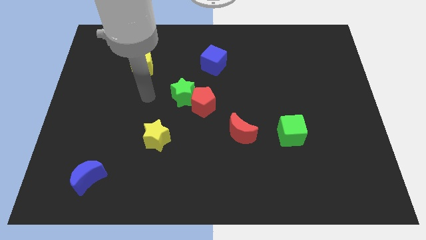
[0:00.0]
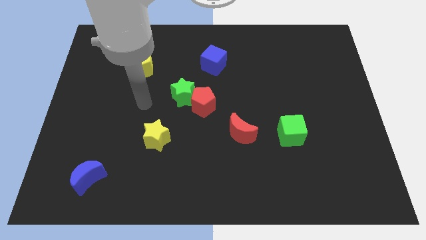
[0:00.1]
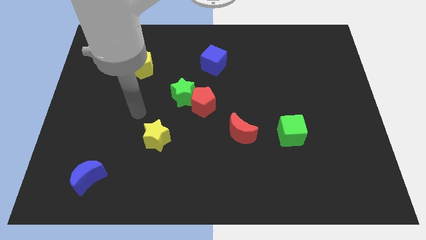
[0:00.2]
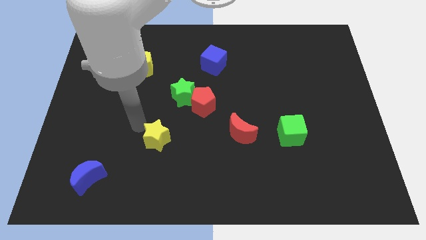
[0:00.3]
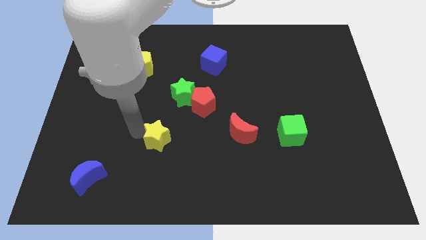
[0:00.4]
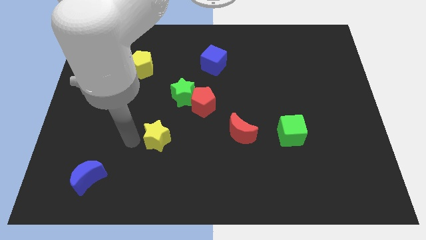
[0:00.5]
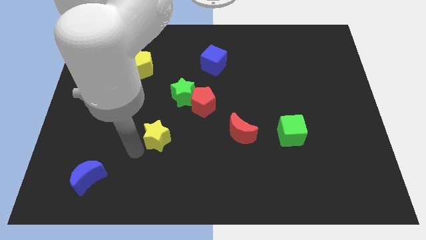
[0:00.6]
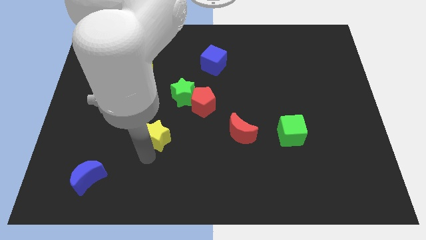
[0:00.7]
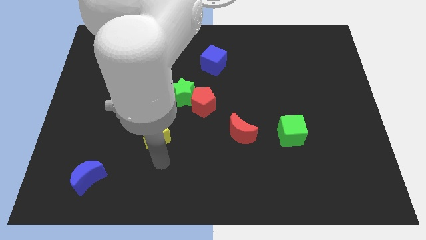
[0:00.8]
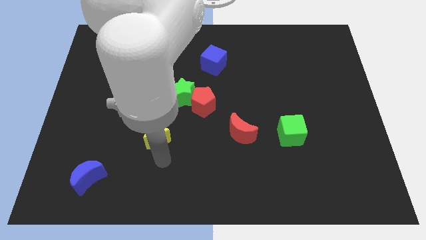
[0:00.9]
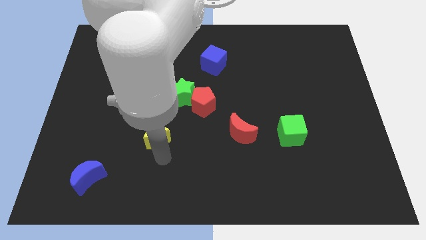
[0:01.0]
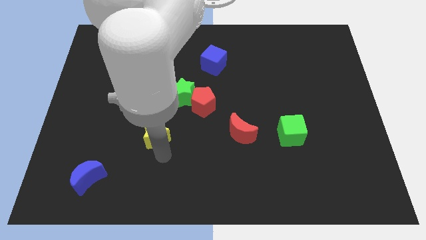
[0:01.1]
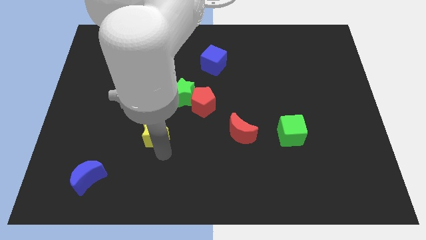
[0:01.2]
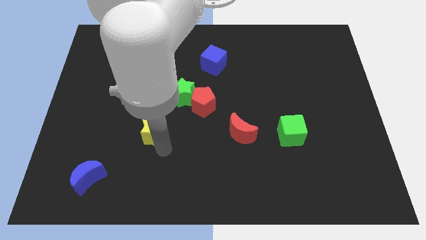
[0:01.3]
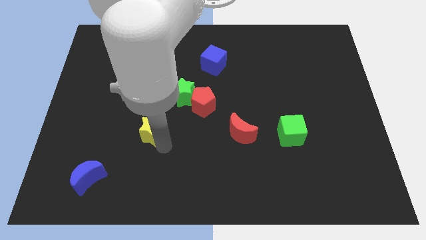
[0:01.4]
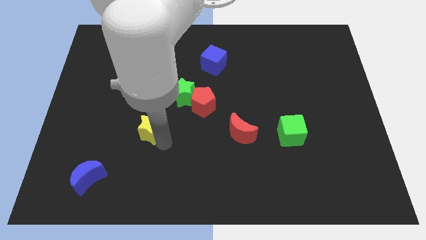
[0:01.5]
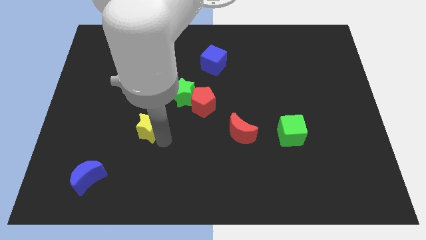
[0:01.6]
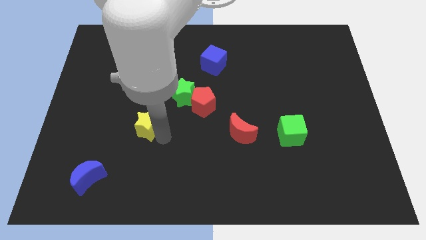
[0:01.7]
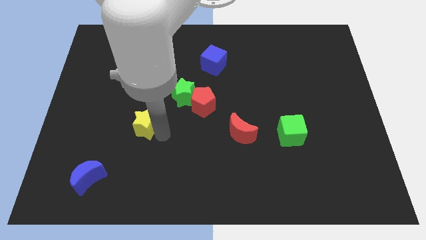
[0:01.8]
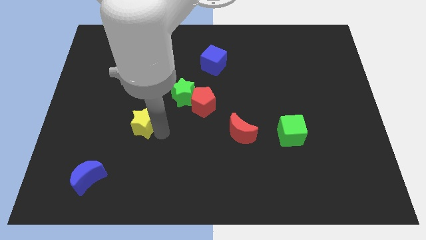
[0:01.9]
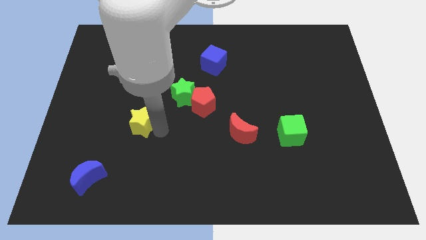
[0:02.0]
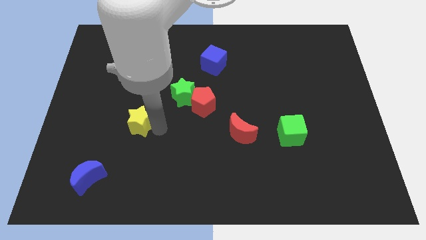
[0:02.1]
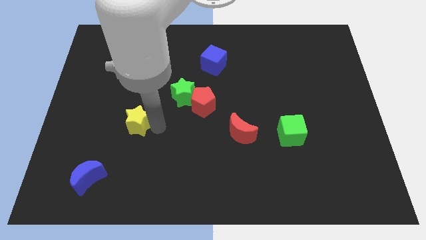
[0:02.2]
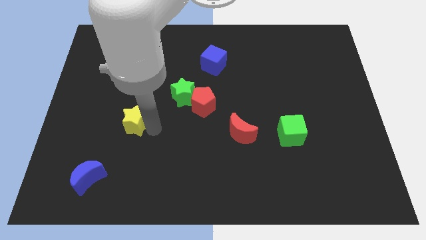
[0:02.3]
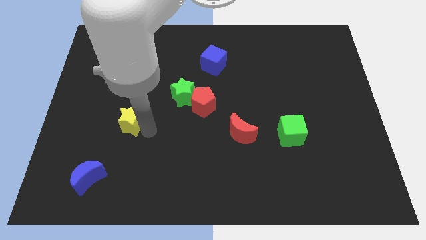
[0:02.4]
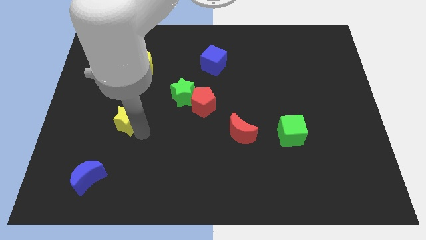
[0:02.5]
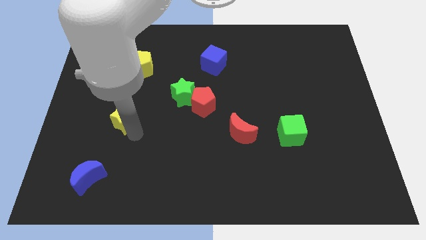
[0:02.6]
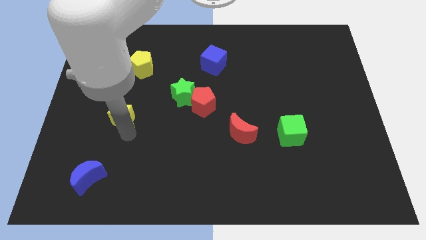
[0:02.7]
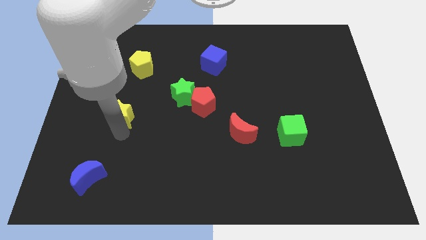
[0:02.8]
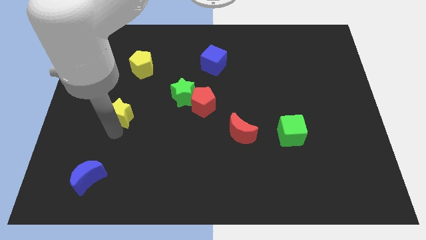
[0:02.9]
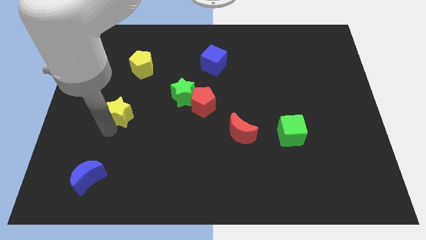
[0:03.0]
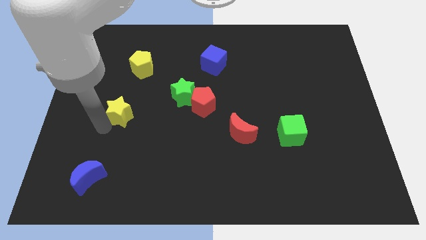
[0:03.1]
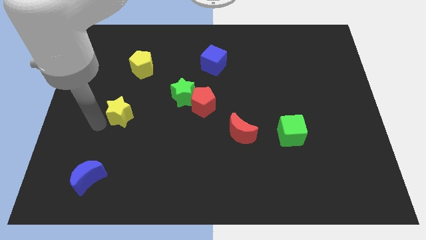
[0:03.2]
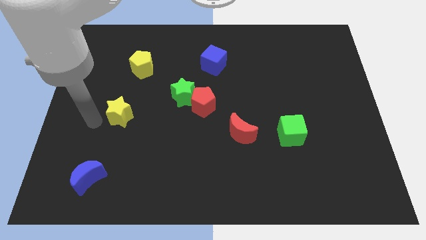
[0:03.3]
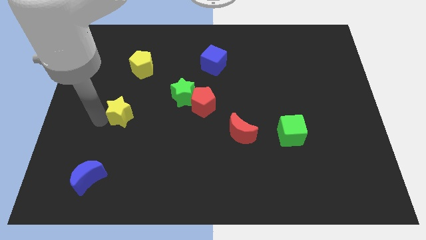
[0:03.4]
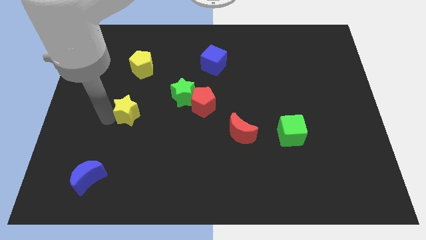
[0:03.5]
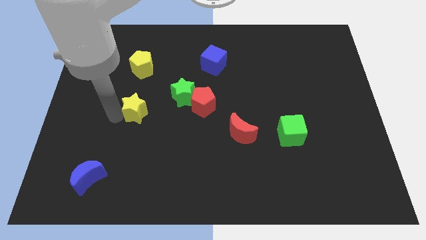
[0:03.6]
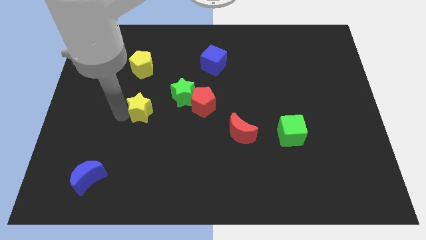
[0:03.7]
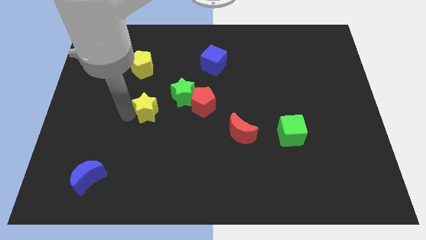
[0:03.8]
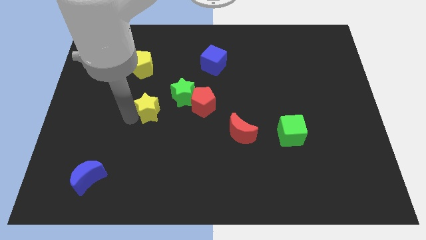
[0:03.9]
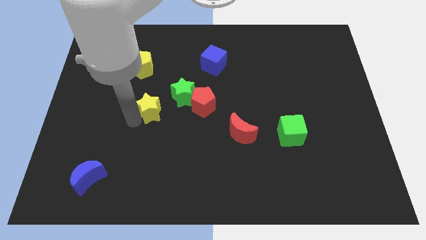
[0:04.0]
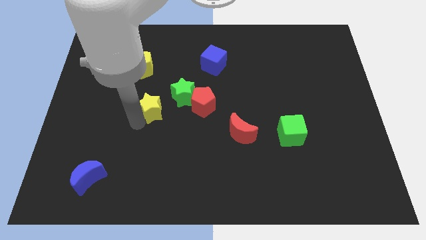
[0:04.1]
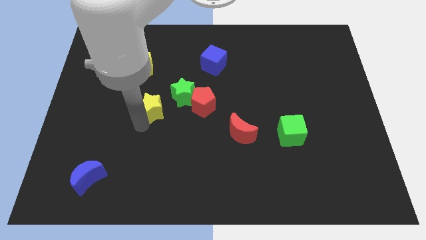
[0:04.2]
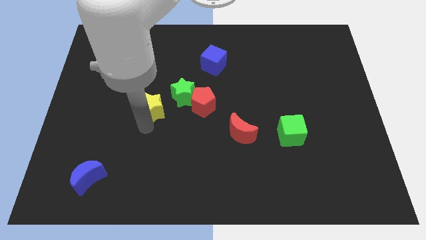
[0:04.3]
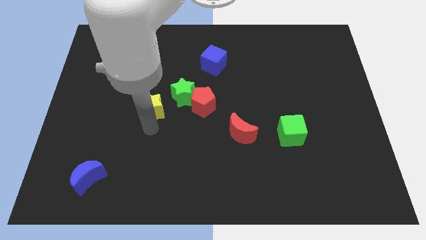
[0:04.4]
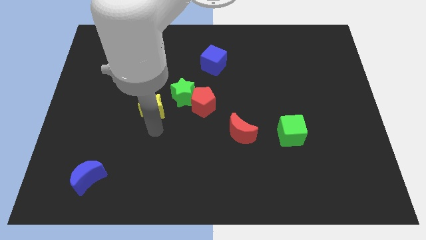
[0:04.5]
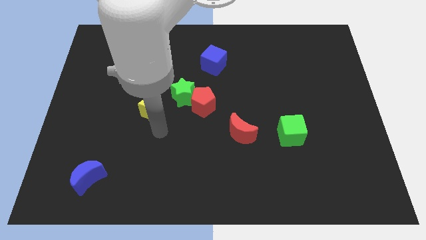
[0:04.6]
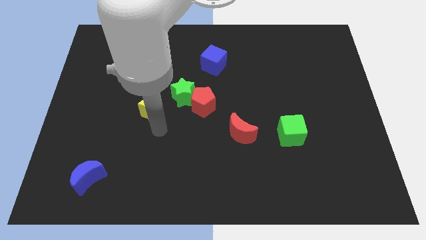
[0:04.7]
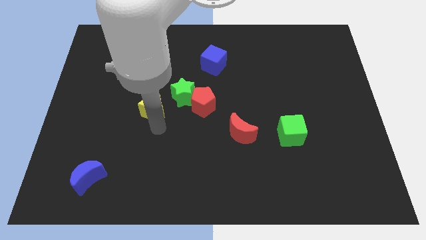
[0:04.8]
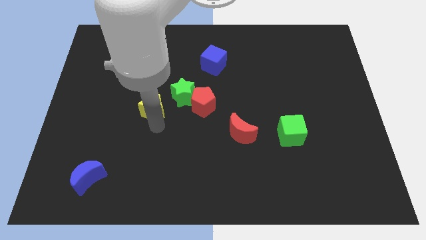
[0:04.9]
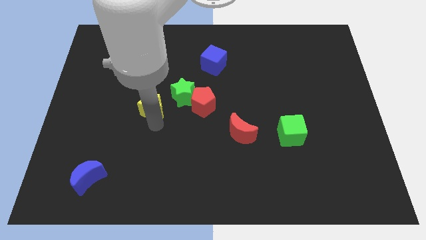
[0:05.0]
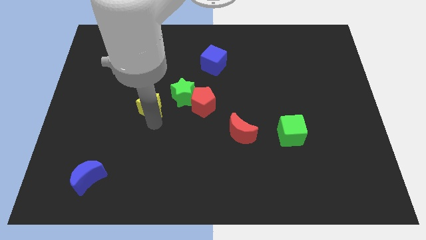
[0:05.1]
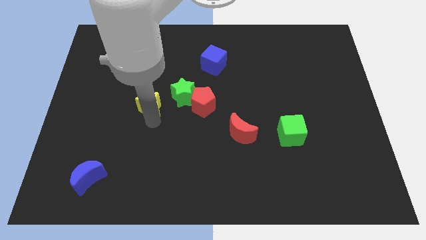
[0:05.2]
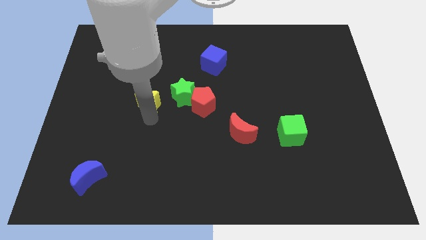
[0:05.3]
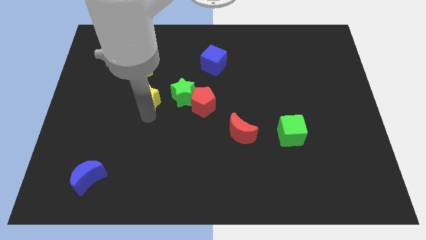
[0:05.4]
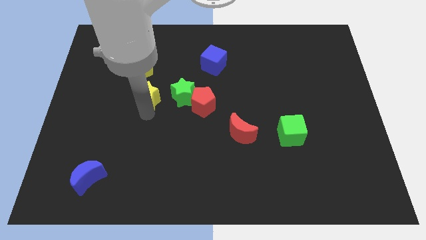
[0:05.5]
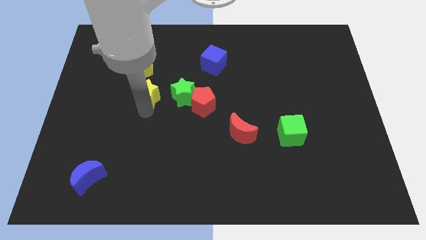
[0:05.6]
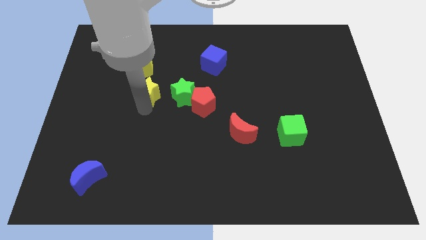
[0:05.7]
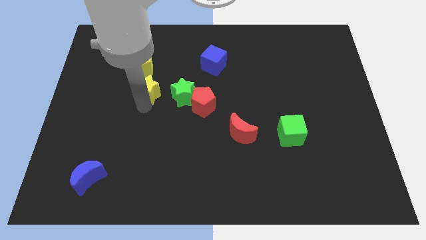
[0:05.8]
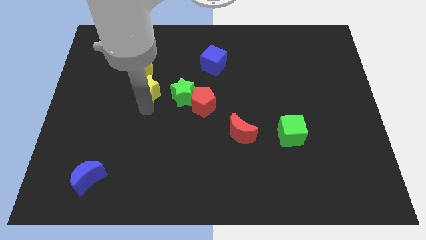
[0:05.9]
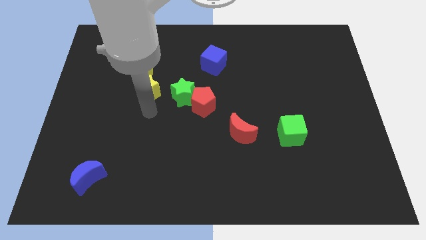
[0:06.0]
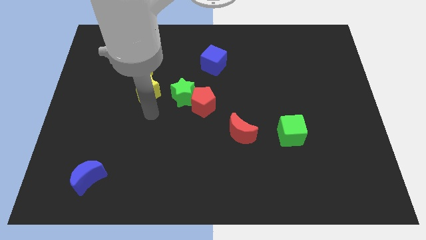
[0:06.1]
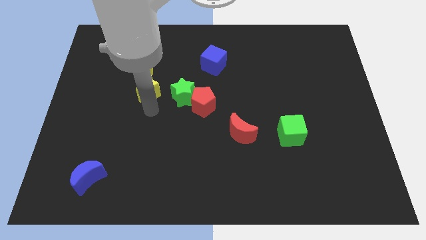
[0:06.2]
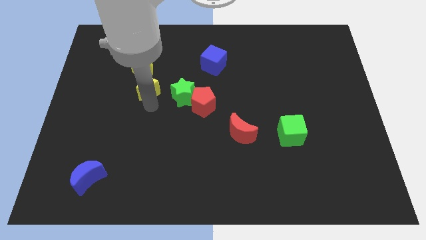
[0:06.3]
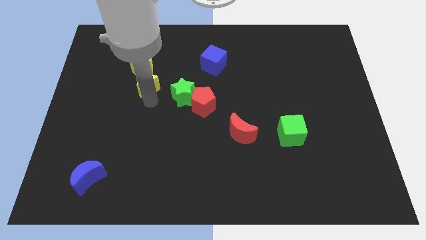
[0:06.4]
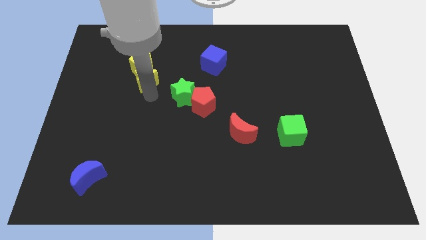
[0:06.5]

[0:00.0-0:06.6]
move the yellow star towards the yellow pentagon

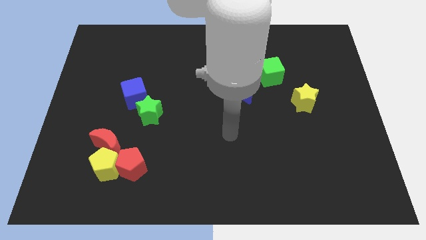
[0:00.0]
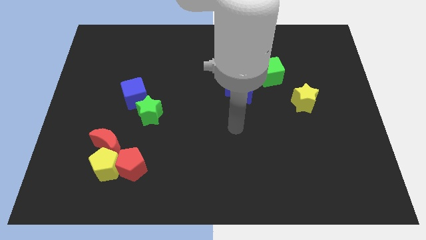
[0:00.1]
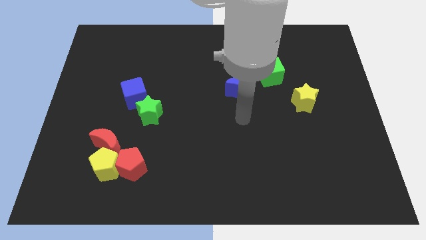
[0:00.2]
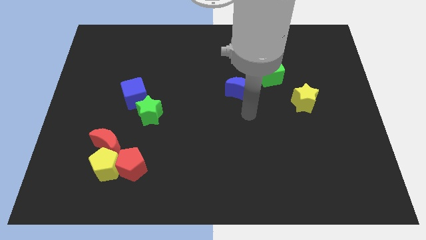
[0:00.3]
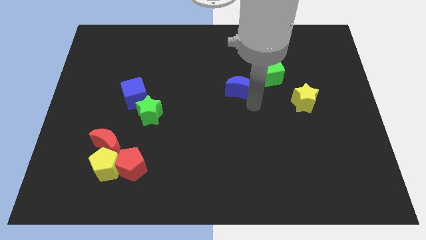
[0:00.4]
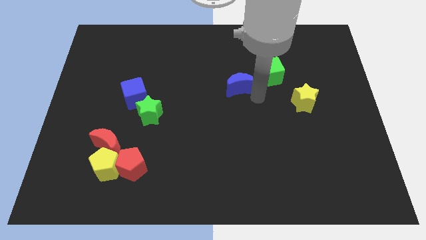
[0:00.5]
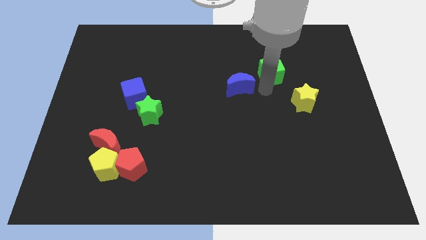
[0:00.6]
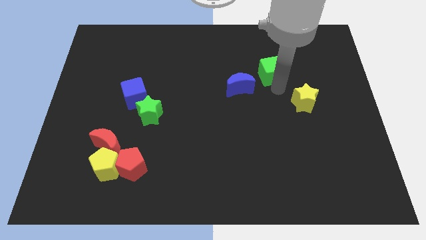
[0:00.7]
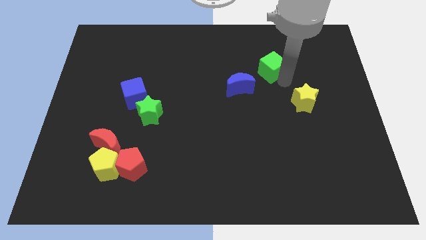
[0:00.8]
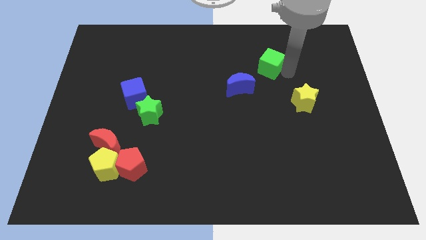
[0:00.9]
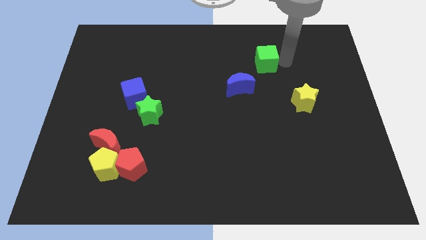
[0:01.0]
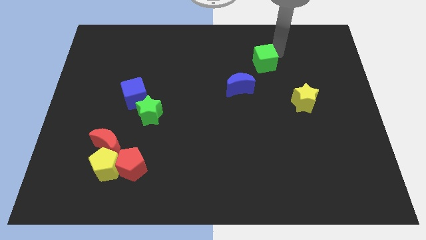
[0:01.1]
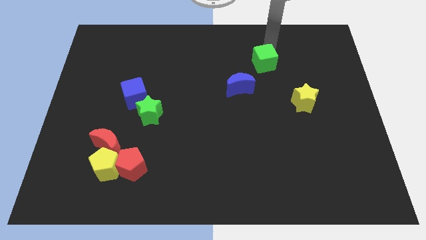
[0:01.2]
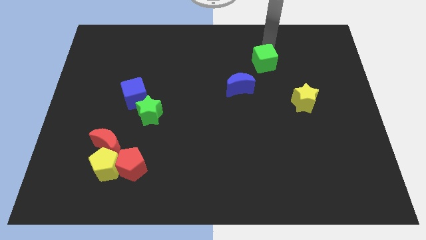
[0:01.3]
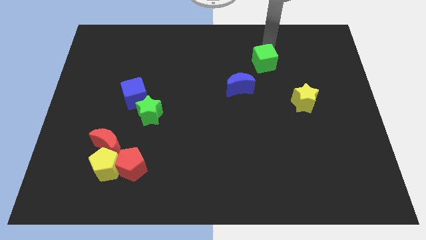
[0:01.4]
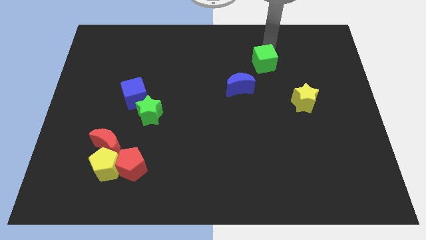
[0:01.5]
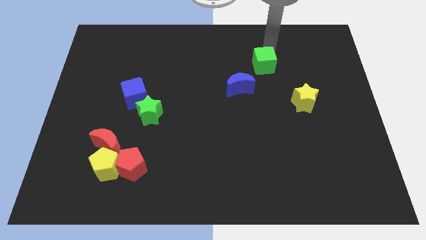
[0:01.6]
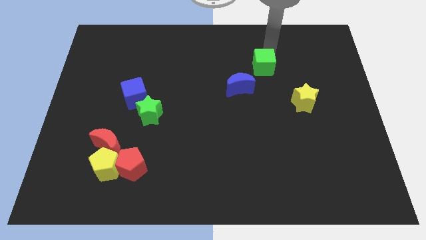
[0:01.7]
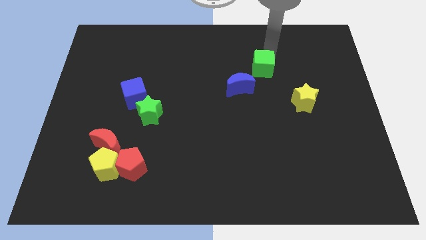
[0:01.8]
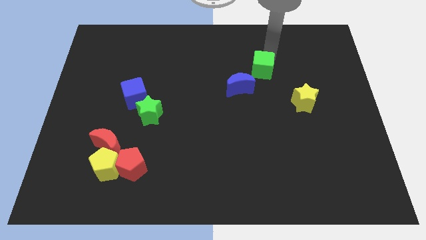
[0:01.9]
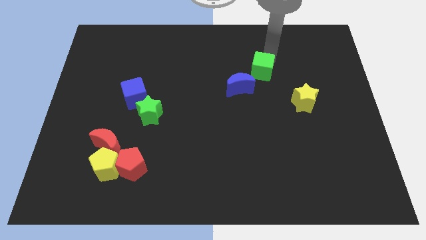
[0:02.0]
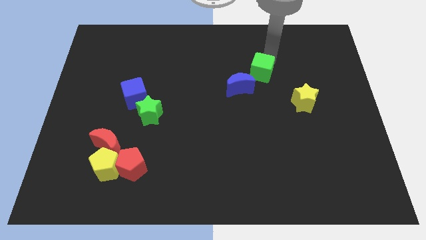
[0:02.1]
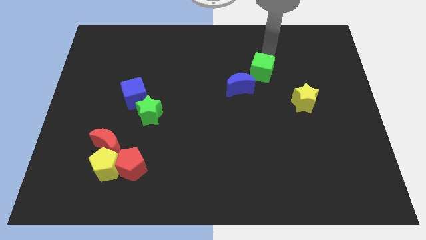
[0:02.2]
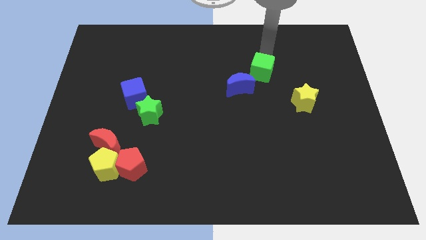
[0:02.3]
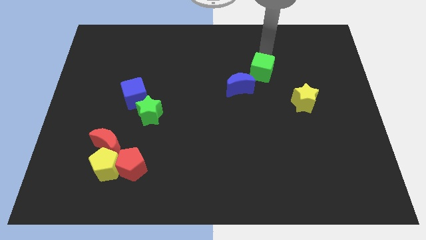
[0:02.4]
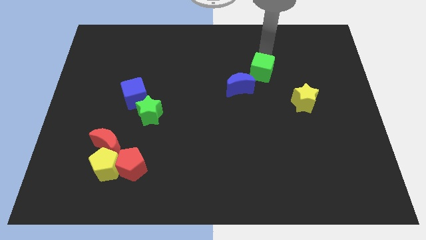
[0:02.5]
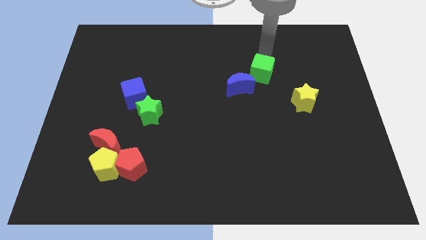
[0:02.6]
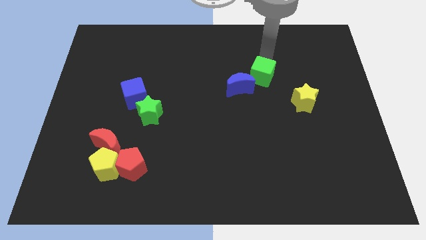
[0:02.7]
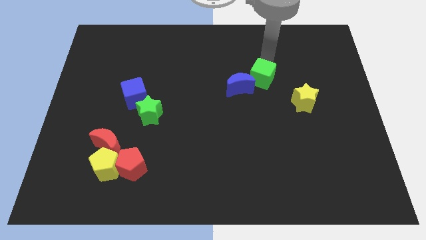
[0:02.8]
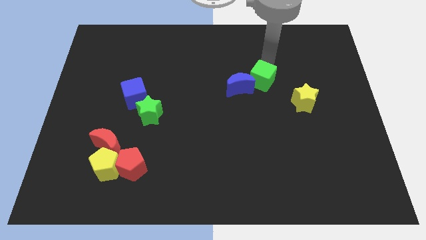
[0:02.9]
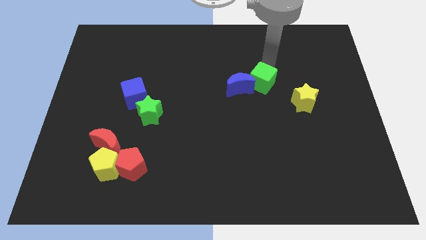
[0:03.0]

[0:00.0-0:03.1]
put the green cube towards the blue moon
